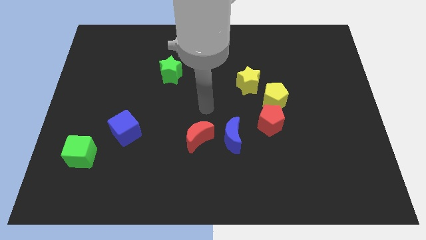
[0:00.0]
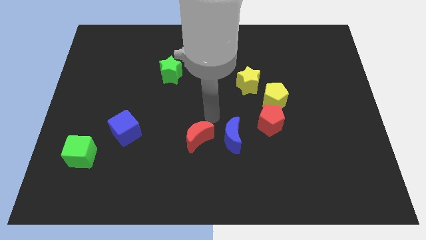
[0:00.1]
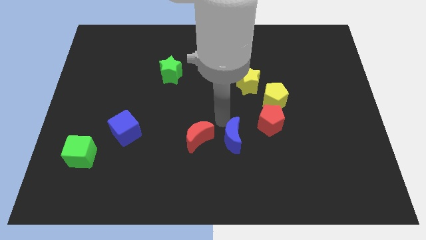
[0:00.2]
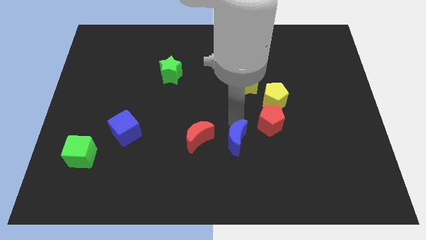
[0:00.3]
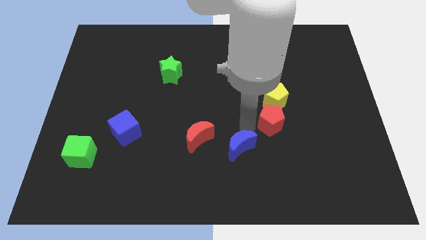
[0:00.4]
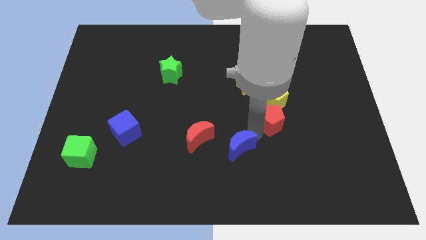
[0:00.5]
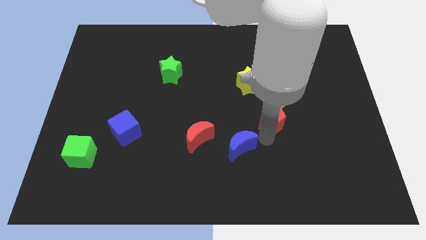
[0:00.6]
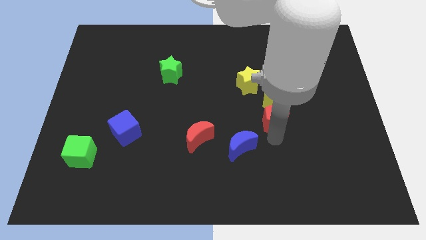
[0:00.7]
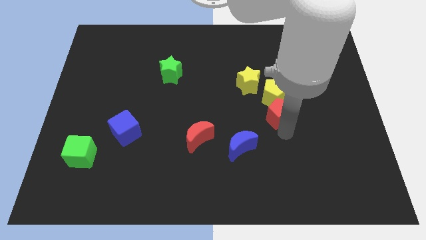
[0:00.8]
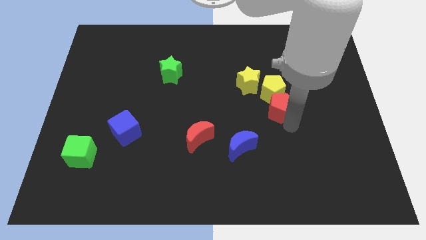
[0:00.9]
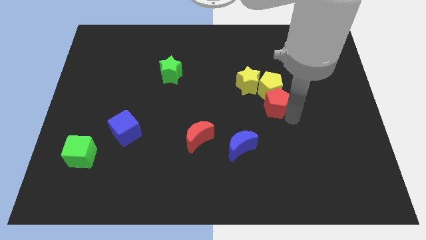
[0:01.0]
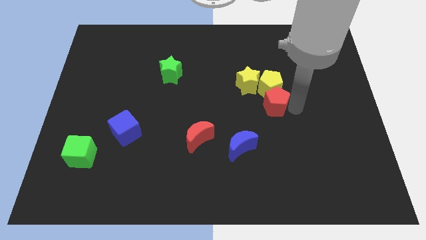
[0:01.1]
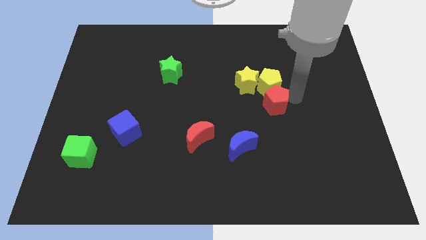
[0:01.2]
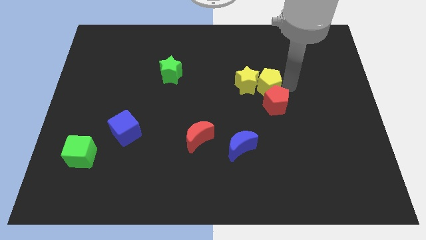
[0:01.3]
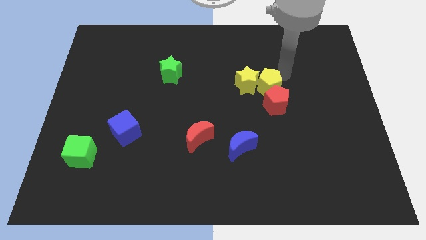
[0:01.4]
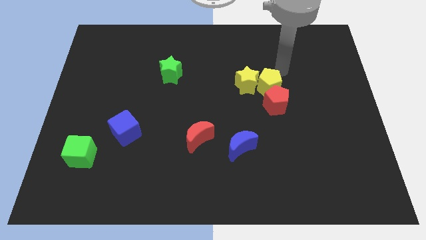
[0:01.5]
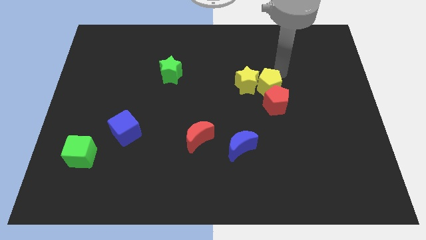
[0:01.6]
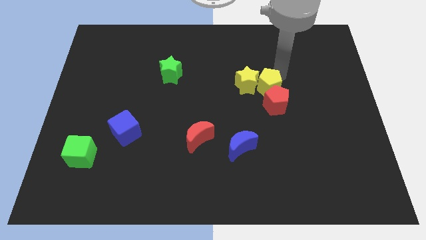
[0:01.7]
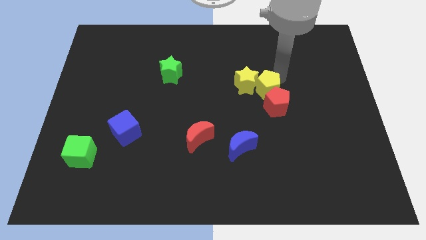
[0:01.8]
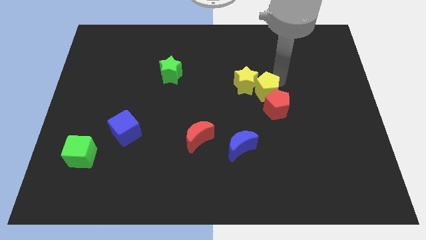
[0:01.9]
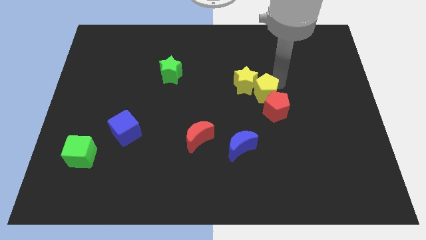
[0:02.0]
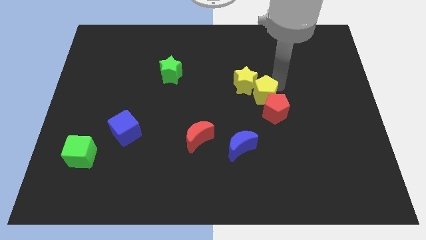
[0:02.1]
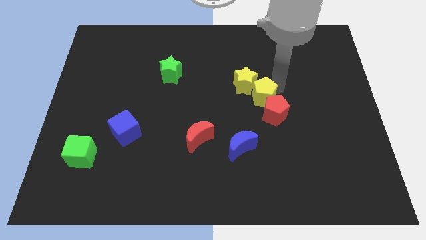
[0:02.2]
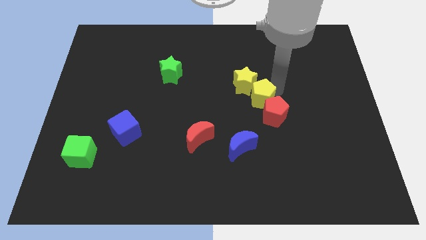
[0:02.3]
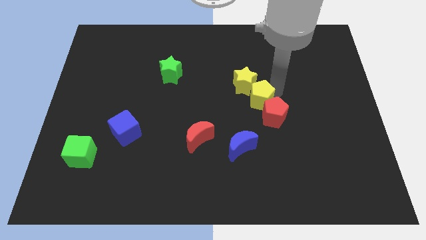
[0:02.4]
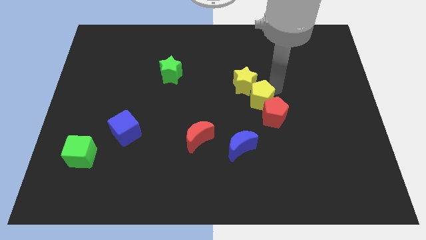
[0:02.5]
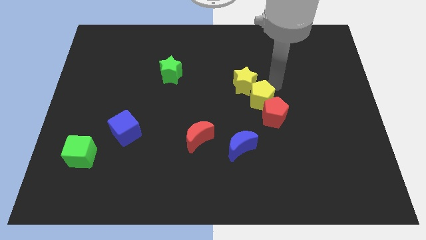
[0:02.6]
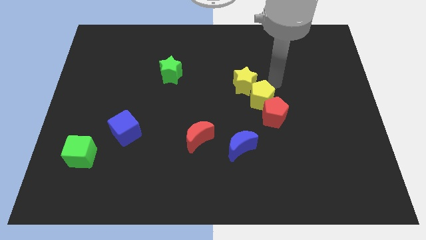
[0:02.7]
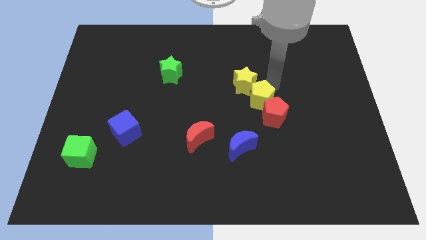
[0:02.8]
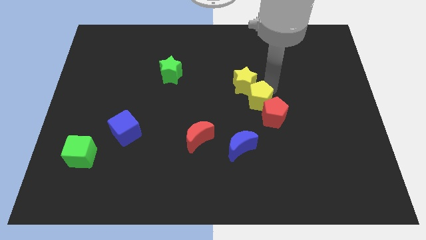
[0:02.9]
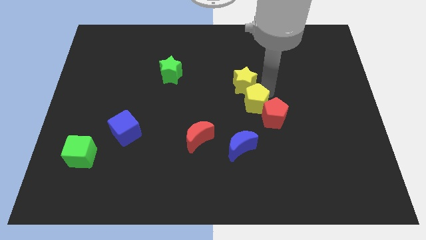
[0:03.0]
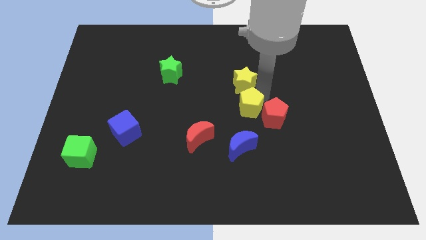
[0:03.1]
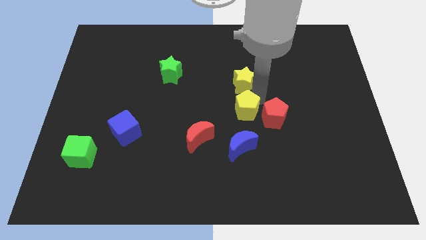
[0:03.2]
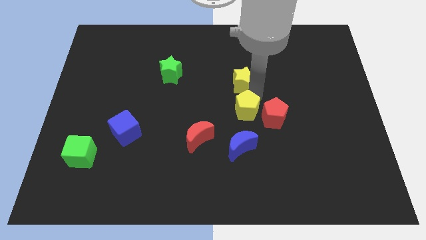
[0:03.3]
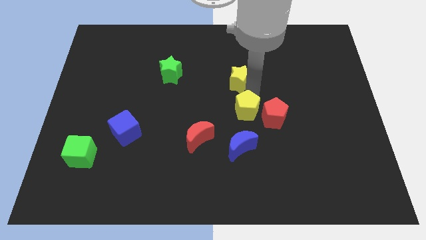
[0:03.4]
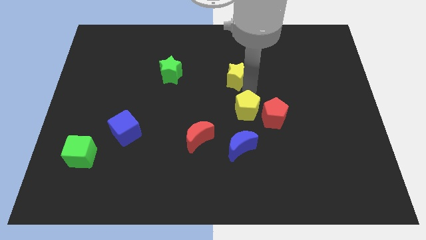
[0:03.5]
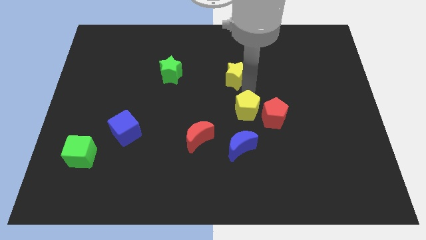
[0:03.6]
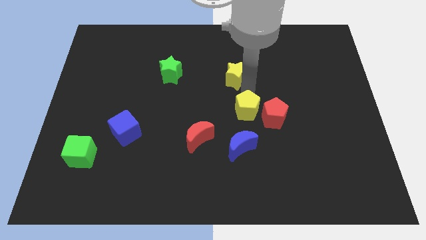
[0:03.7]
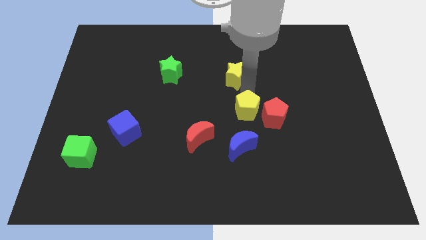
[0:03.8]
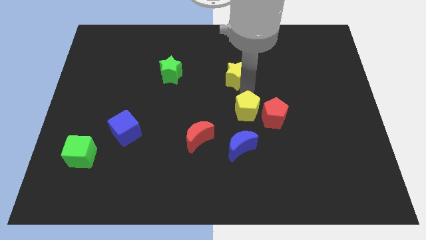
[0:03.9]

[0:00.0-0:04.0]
push the yellow pentagon down and left diagonally a little bit

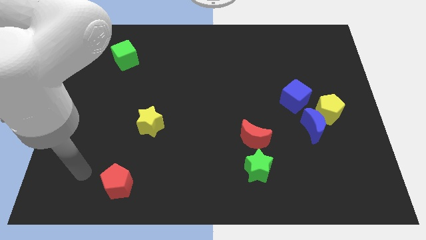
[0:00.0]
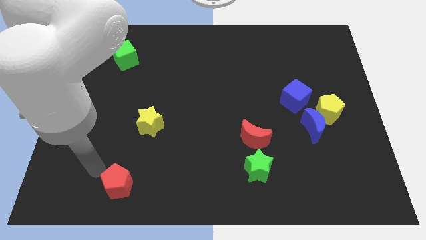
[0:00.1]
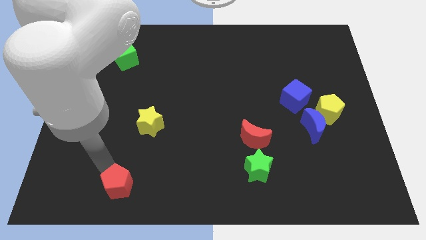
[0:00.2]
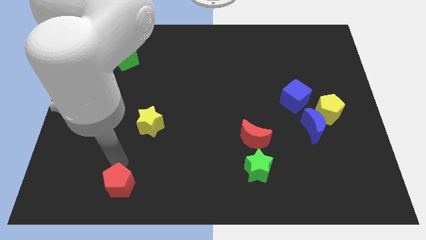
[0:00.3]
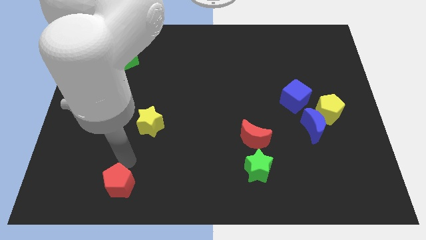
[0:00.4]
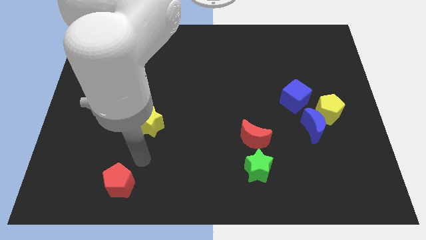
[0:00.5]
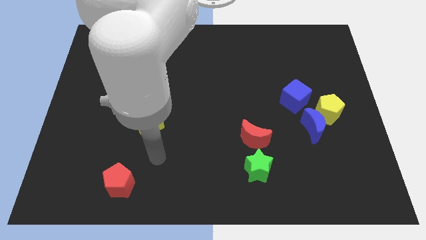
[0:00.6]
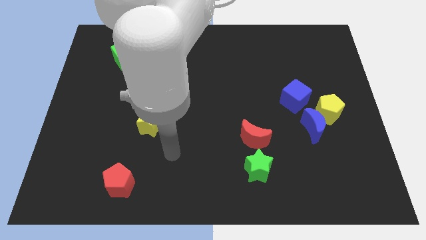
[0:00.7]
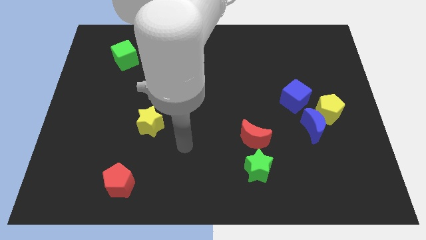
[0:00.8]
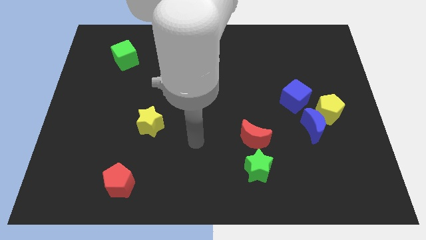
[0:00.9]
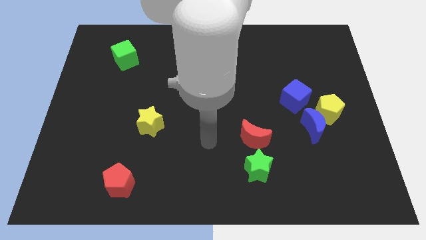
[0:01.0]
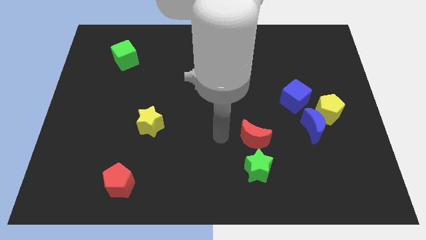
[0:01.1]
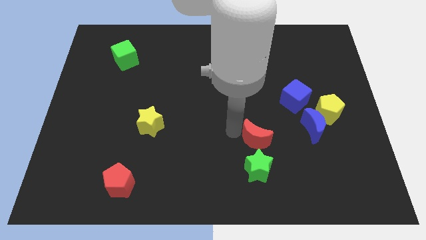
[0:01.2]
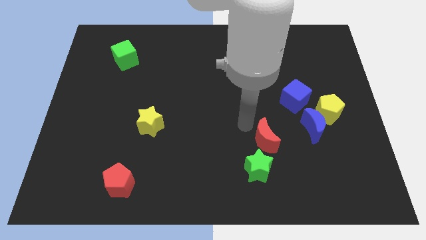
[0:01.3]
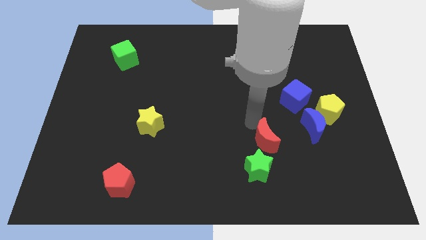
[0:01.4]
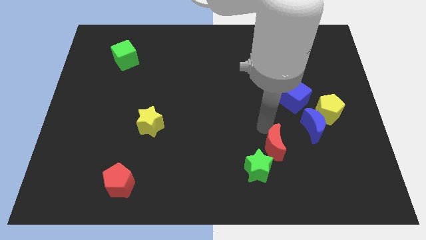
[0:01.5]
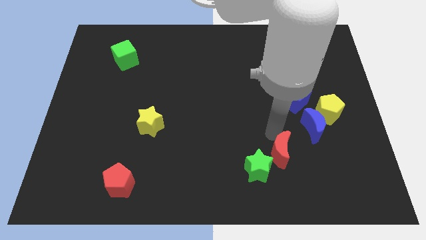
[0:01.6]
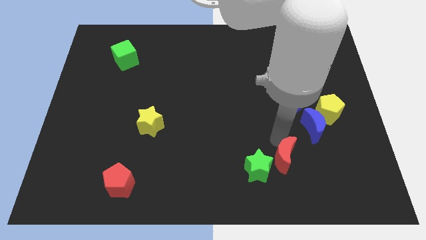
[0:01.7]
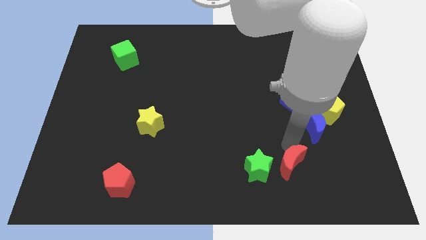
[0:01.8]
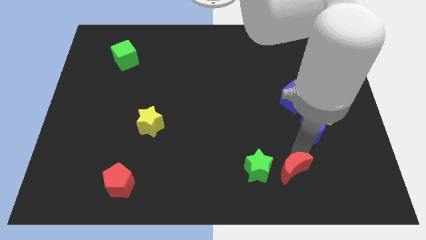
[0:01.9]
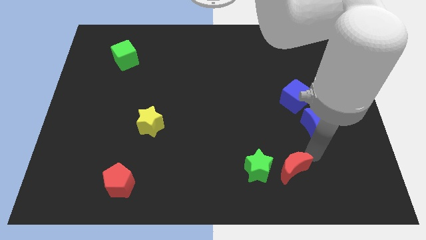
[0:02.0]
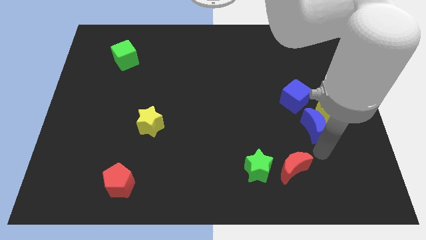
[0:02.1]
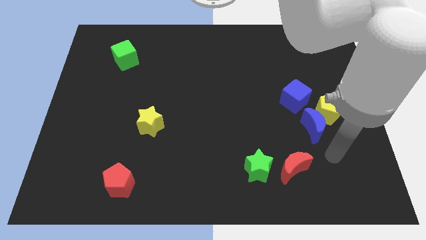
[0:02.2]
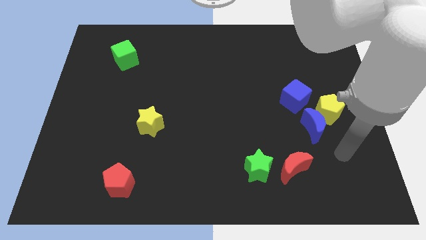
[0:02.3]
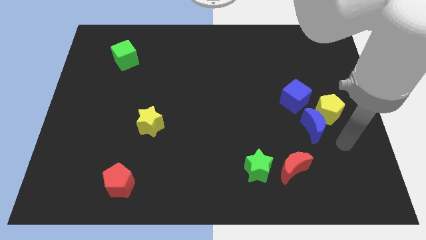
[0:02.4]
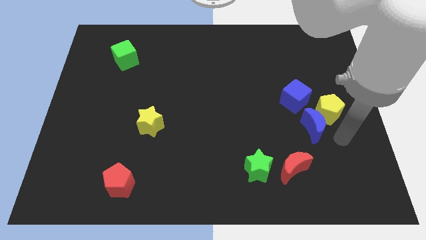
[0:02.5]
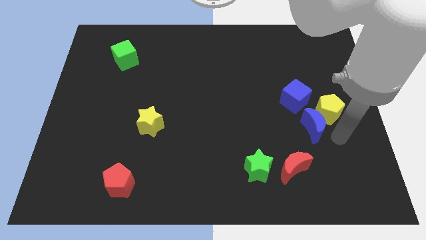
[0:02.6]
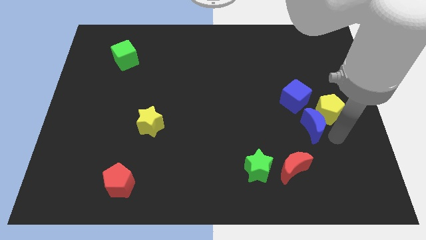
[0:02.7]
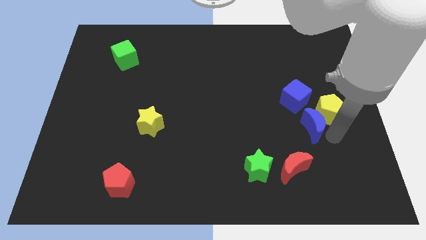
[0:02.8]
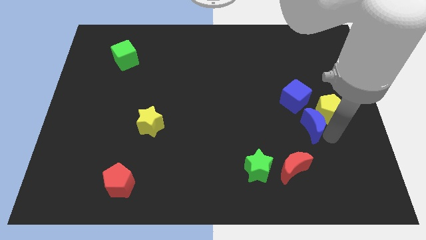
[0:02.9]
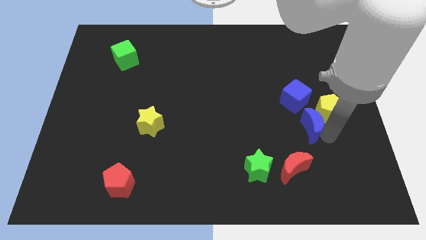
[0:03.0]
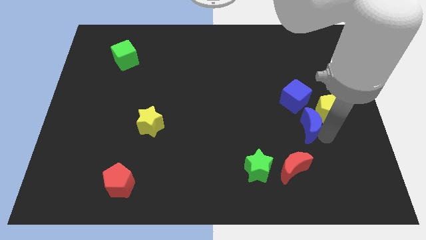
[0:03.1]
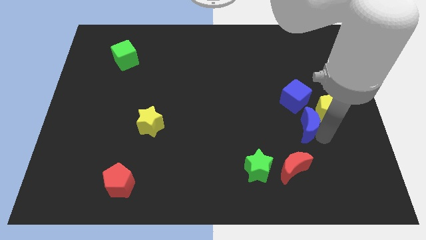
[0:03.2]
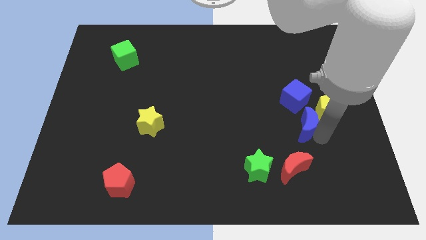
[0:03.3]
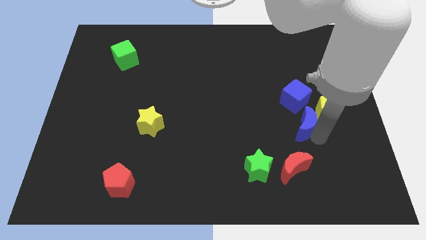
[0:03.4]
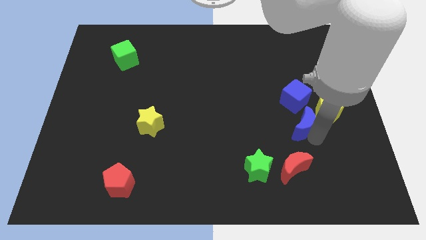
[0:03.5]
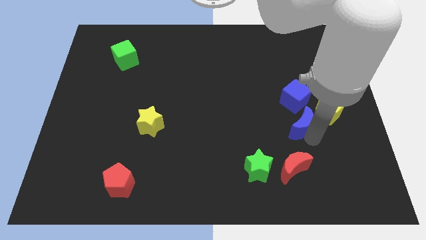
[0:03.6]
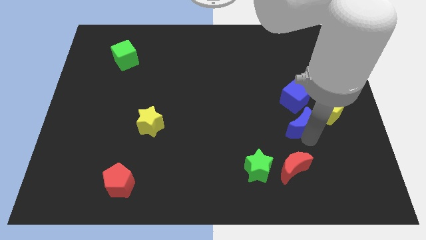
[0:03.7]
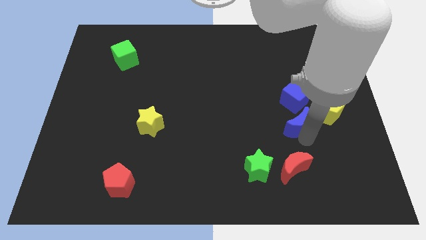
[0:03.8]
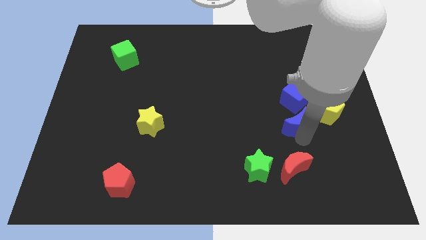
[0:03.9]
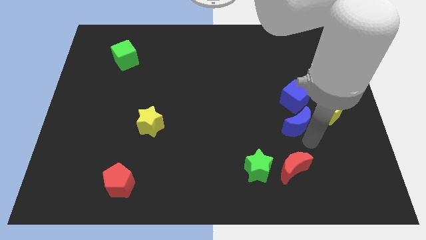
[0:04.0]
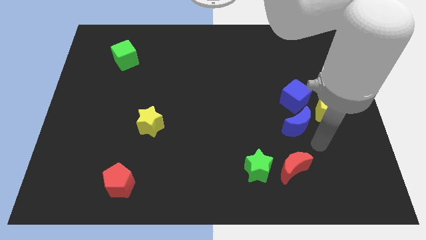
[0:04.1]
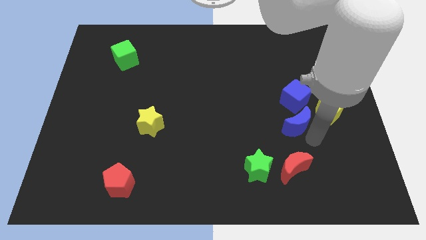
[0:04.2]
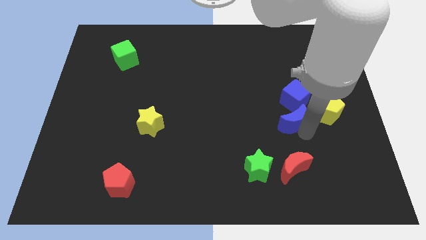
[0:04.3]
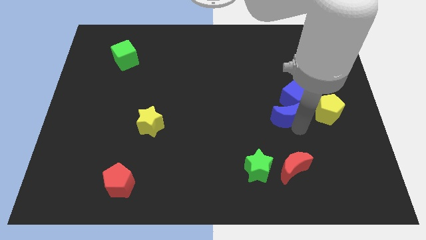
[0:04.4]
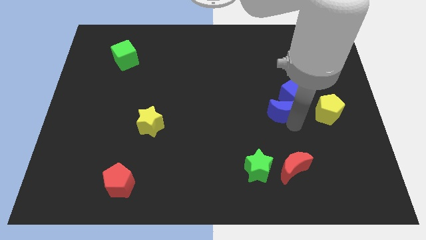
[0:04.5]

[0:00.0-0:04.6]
push the blue moon diagonally up and left a bit
